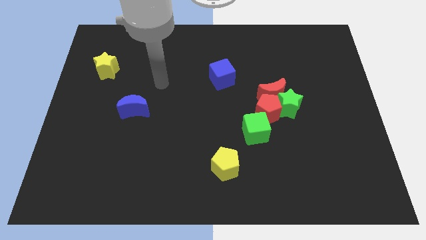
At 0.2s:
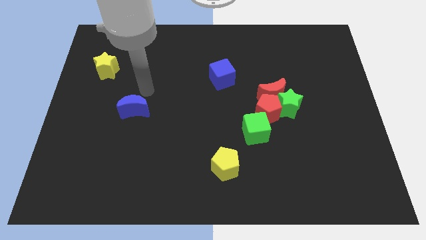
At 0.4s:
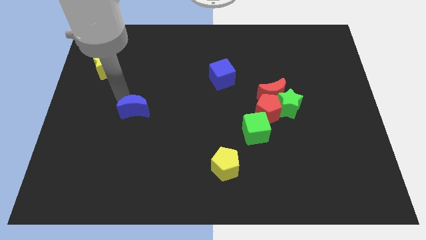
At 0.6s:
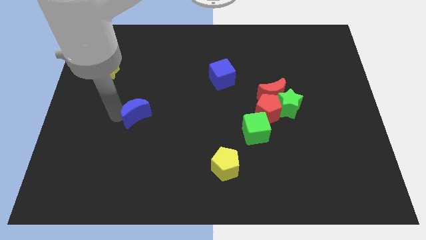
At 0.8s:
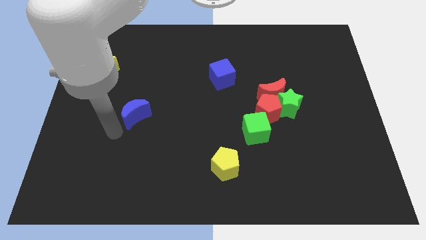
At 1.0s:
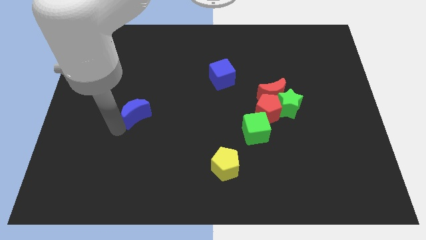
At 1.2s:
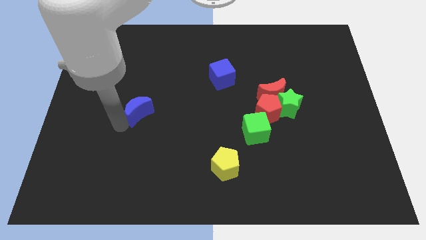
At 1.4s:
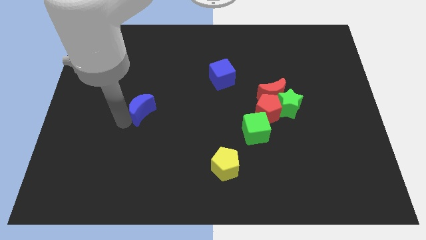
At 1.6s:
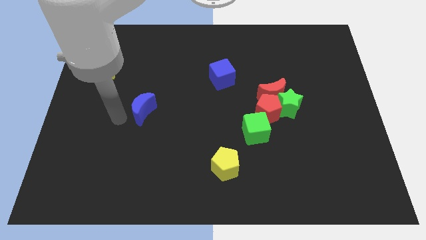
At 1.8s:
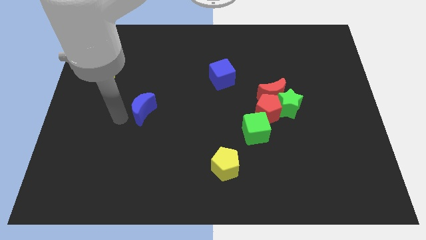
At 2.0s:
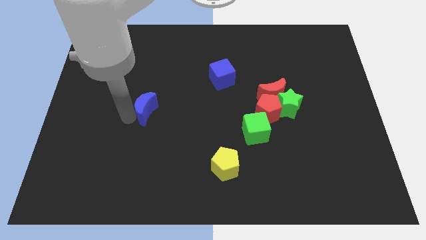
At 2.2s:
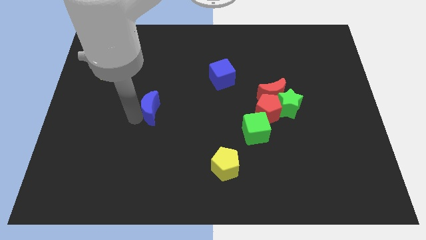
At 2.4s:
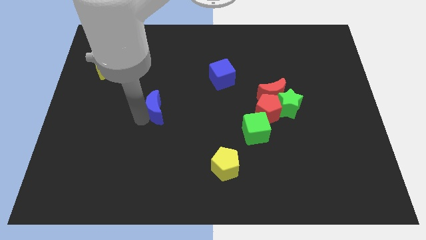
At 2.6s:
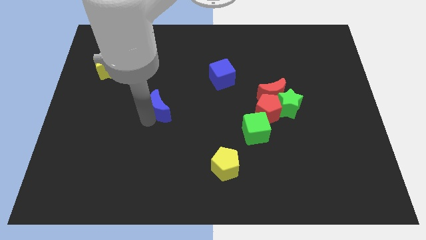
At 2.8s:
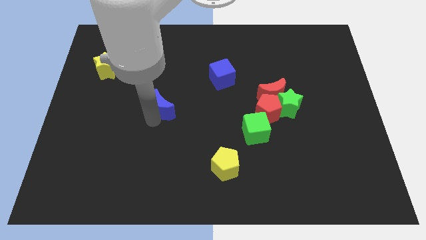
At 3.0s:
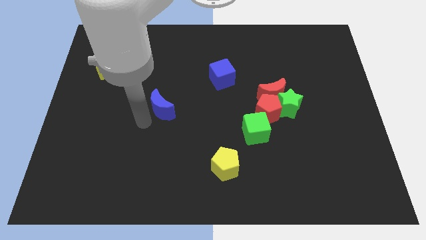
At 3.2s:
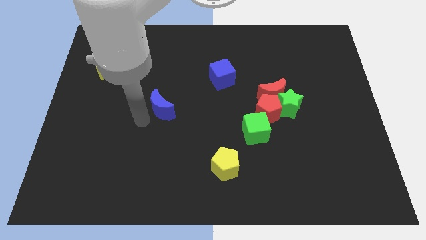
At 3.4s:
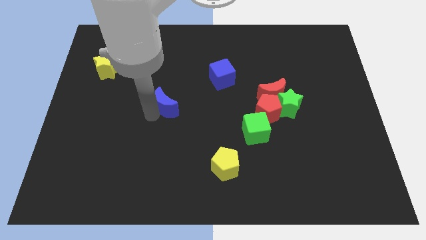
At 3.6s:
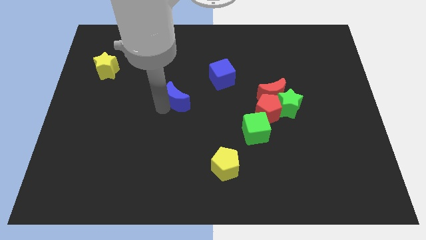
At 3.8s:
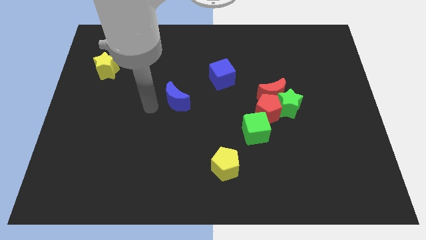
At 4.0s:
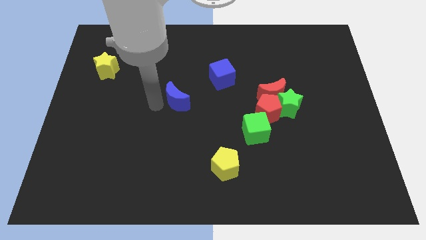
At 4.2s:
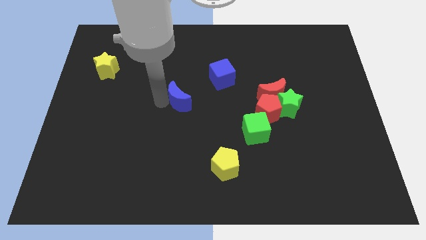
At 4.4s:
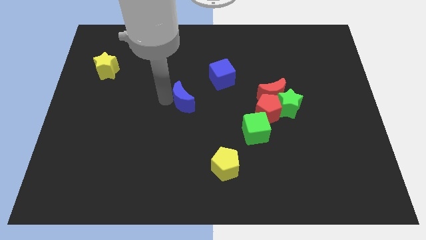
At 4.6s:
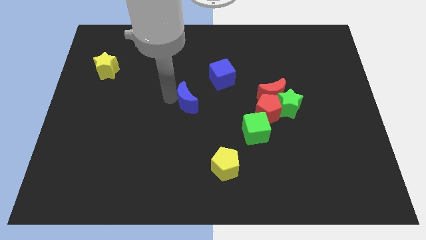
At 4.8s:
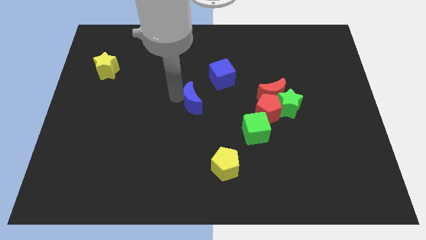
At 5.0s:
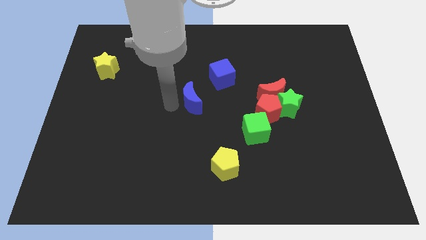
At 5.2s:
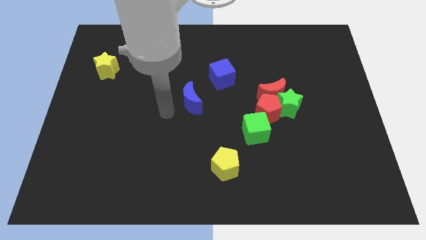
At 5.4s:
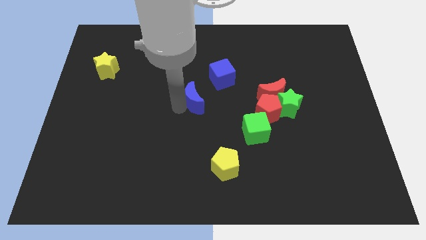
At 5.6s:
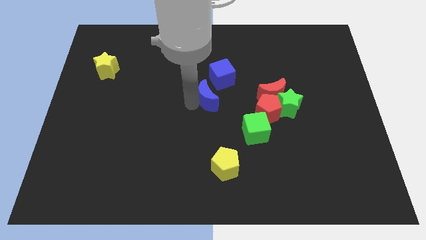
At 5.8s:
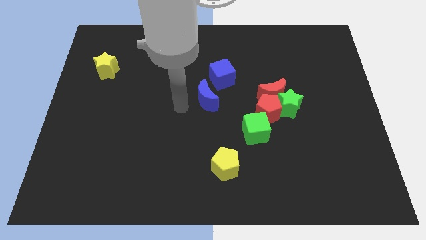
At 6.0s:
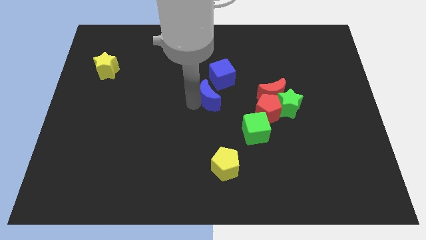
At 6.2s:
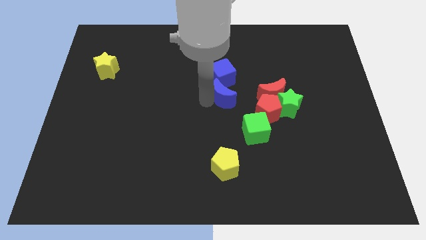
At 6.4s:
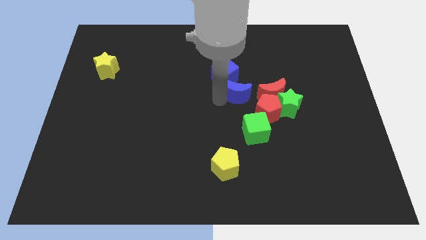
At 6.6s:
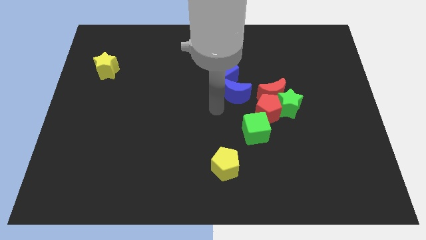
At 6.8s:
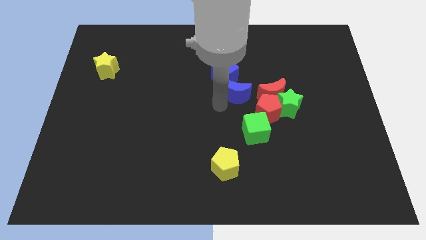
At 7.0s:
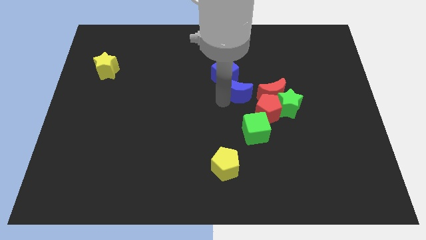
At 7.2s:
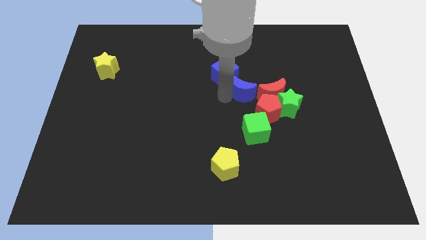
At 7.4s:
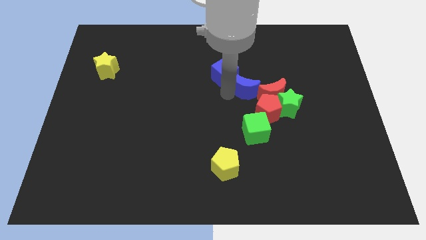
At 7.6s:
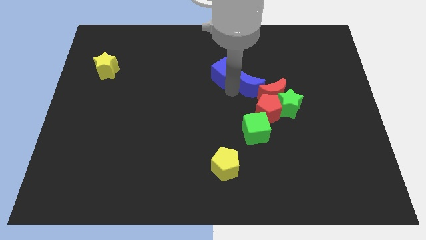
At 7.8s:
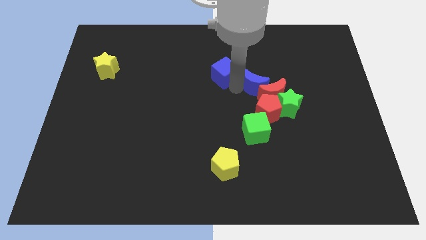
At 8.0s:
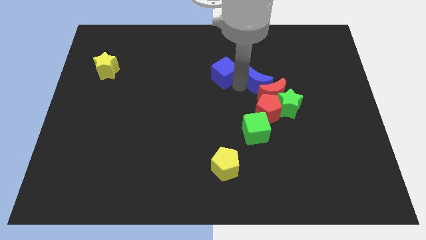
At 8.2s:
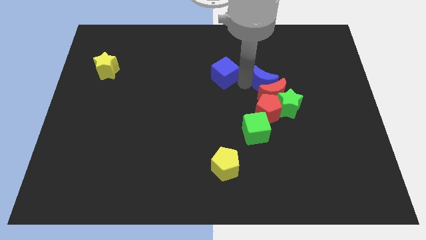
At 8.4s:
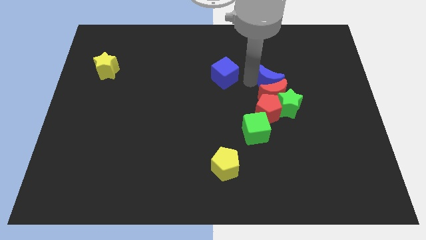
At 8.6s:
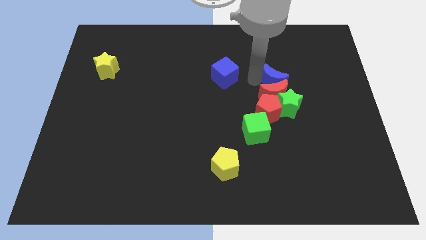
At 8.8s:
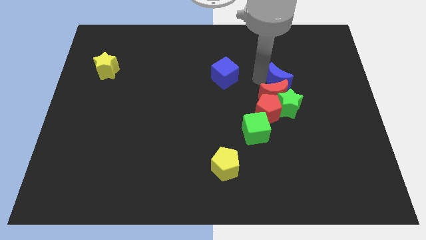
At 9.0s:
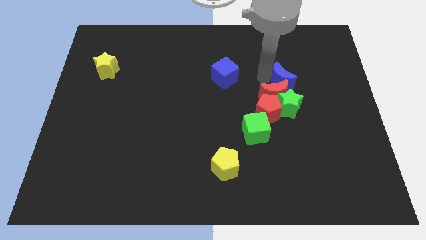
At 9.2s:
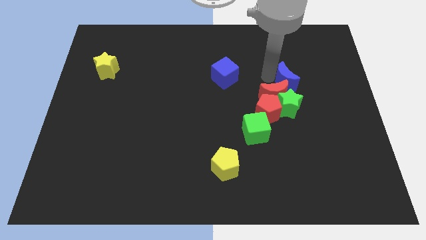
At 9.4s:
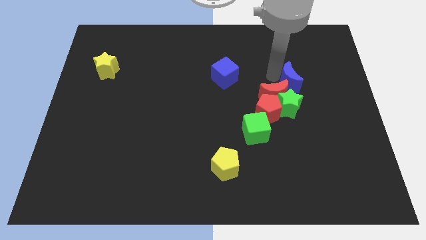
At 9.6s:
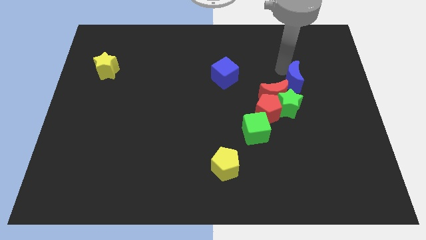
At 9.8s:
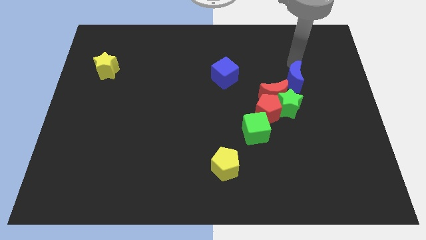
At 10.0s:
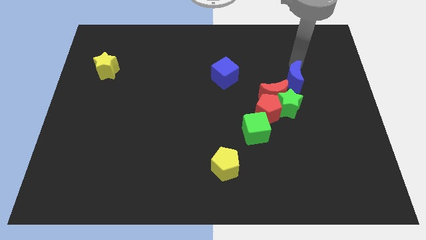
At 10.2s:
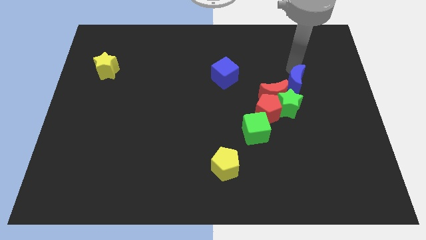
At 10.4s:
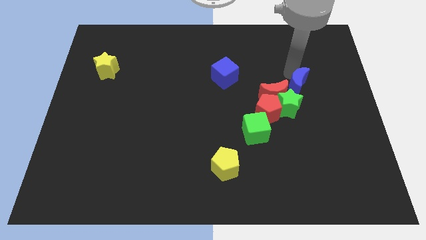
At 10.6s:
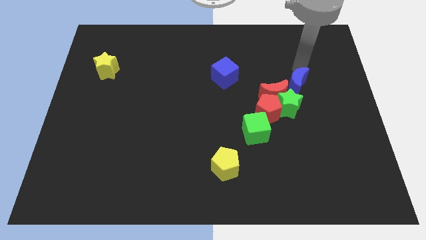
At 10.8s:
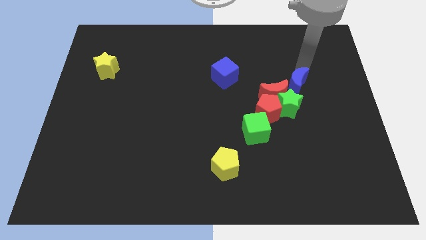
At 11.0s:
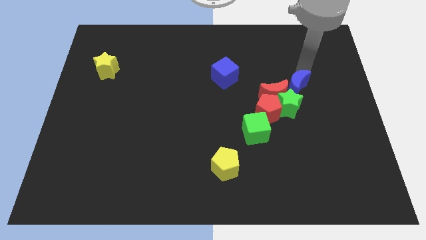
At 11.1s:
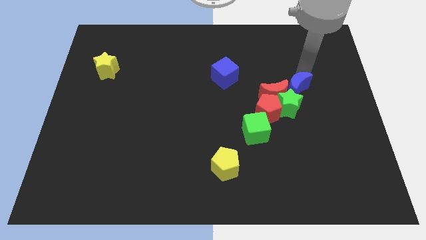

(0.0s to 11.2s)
slide the blue moon next to the green star

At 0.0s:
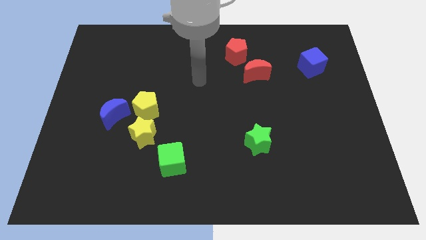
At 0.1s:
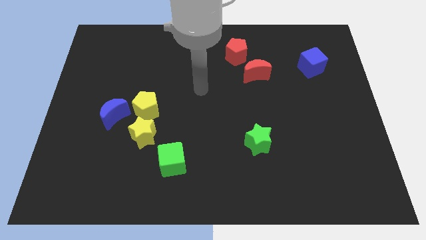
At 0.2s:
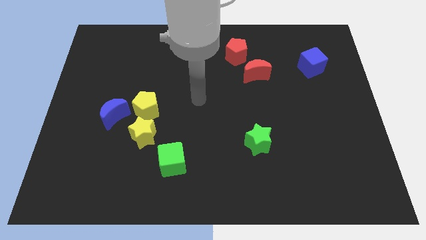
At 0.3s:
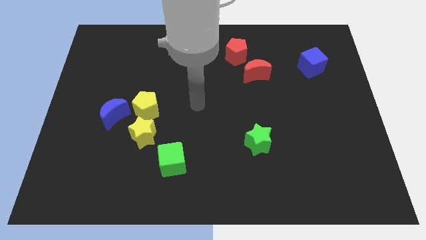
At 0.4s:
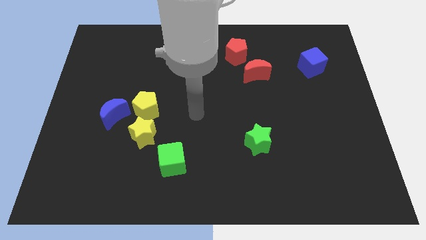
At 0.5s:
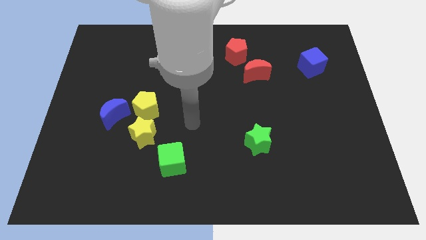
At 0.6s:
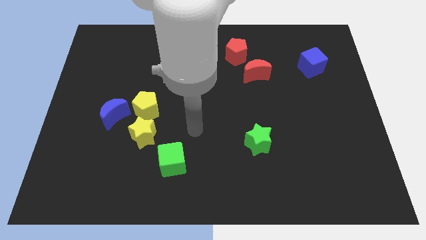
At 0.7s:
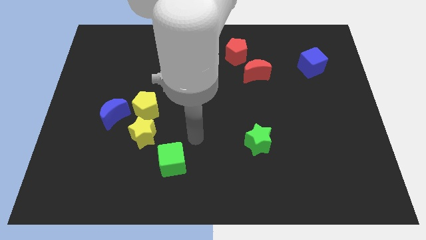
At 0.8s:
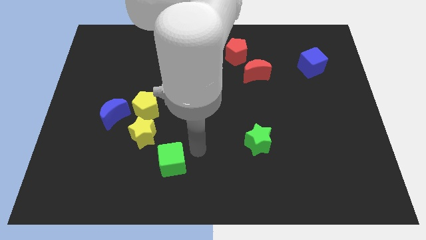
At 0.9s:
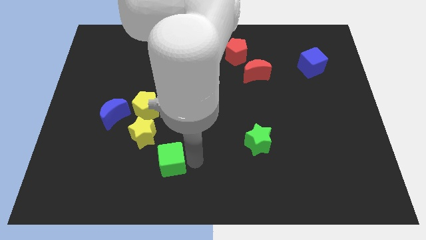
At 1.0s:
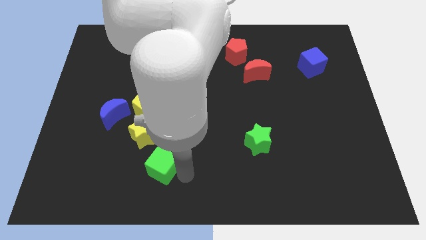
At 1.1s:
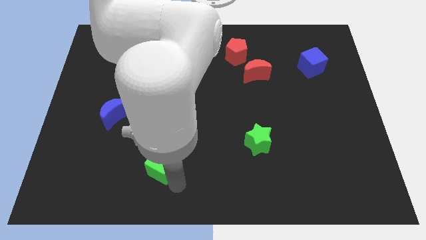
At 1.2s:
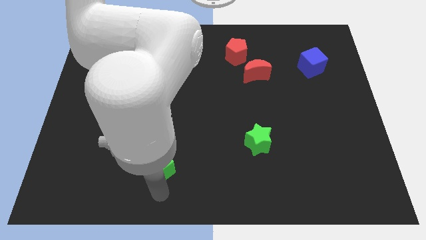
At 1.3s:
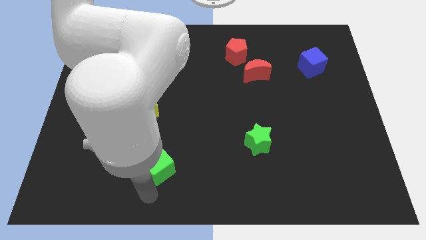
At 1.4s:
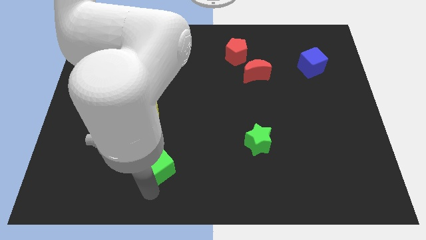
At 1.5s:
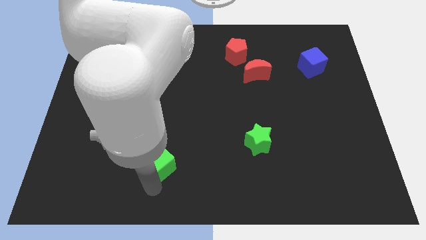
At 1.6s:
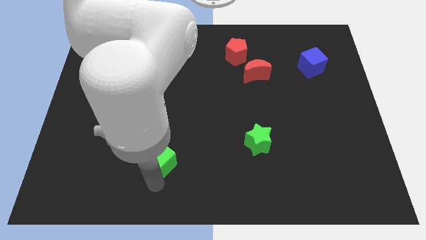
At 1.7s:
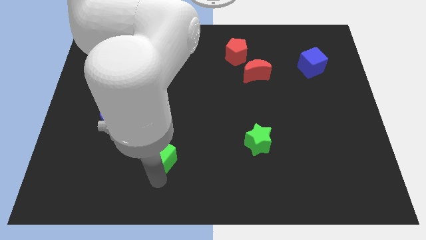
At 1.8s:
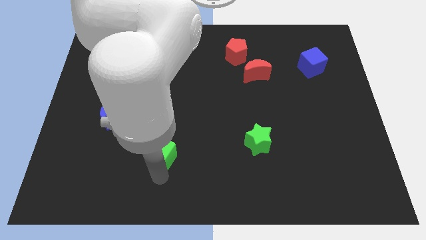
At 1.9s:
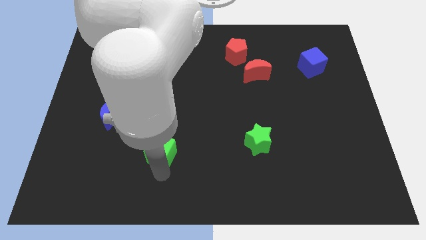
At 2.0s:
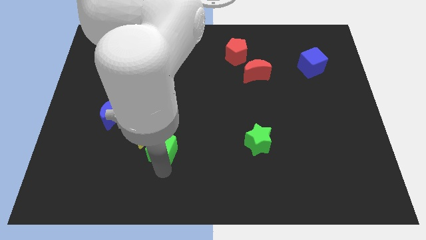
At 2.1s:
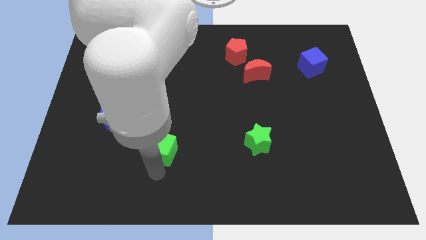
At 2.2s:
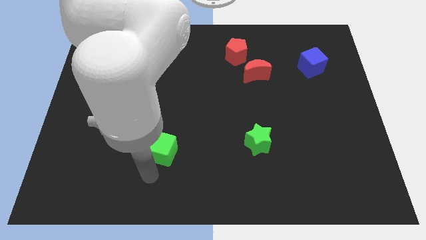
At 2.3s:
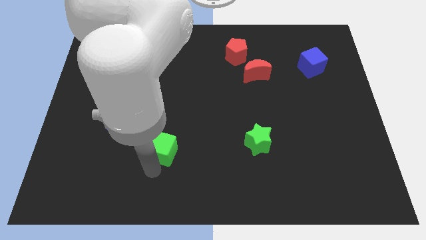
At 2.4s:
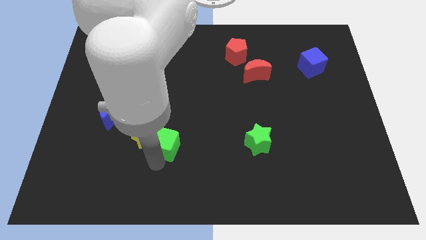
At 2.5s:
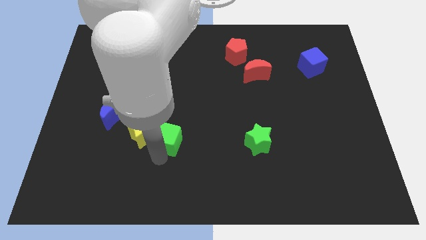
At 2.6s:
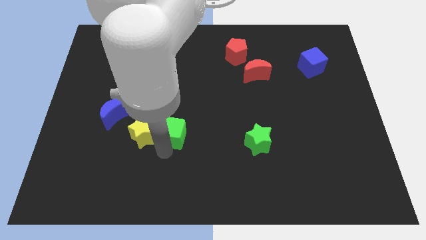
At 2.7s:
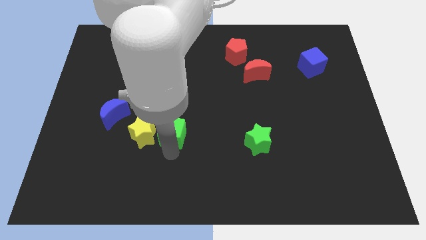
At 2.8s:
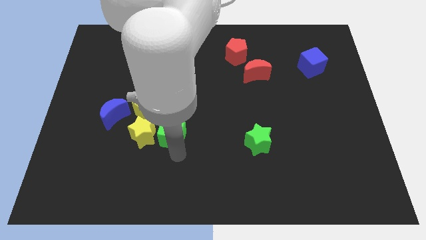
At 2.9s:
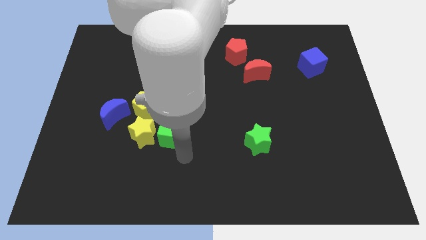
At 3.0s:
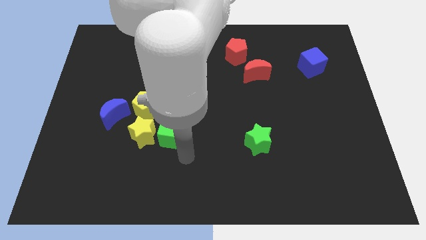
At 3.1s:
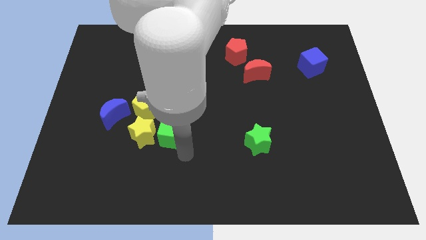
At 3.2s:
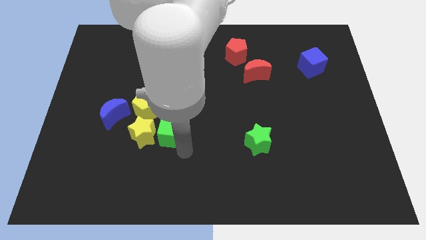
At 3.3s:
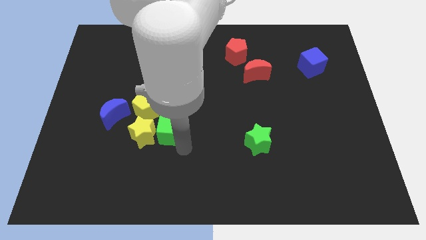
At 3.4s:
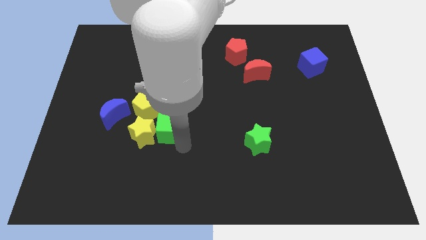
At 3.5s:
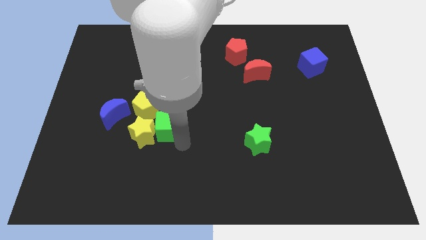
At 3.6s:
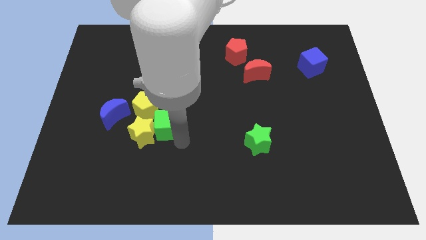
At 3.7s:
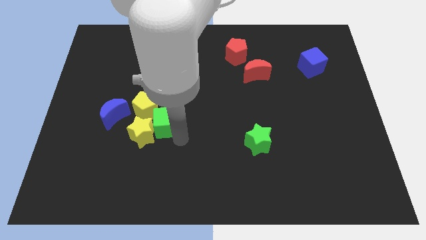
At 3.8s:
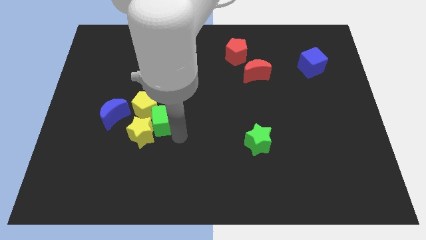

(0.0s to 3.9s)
move the green cube towards the yellow pentagon
